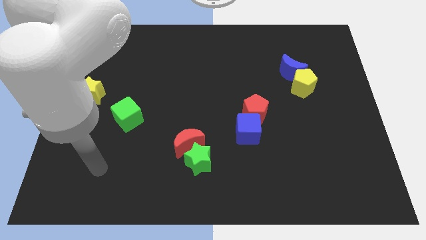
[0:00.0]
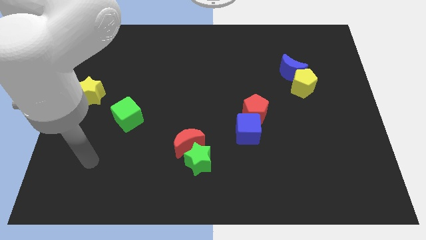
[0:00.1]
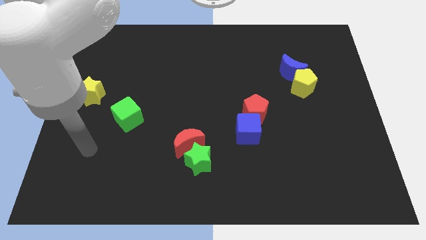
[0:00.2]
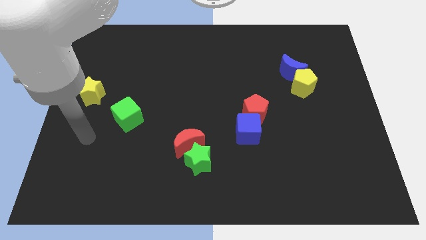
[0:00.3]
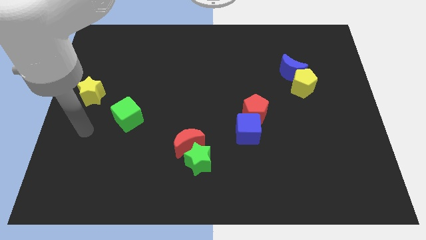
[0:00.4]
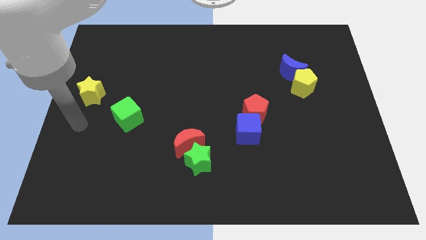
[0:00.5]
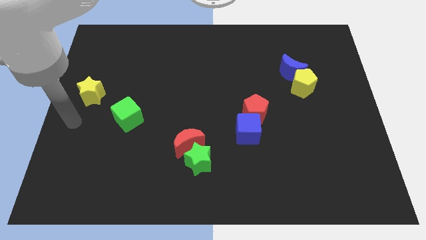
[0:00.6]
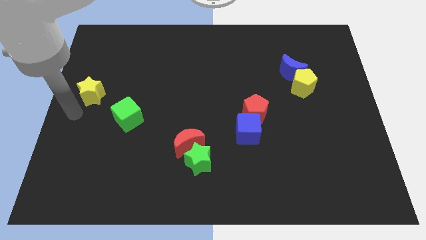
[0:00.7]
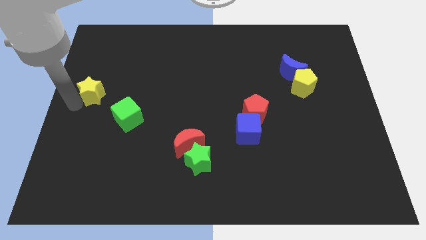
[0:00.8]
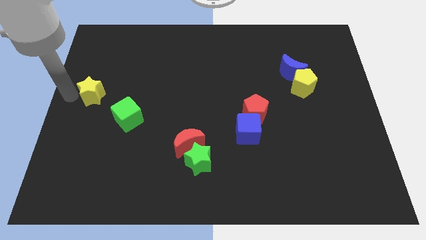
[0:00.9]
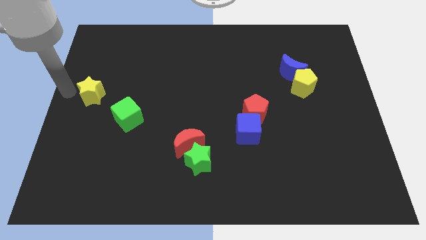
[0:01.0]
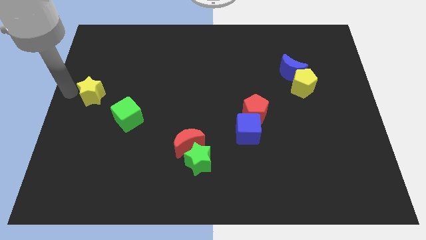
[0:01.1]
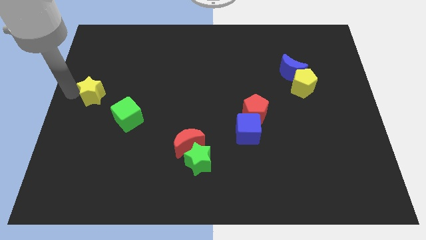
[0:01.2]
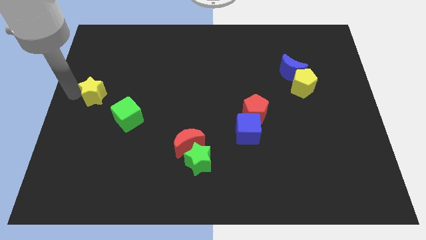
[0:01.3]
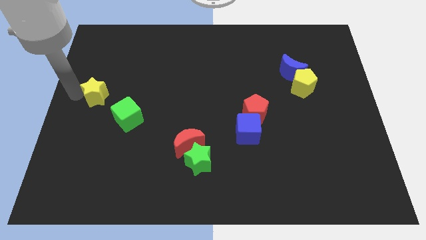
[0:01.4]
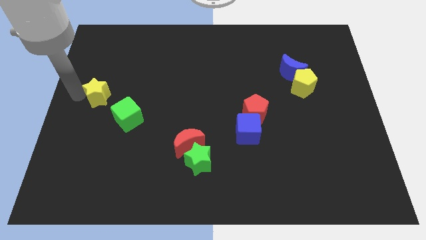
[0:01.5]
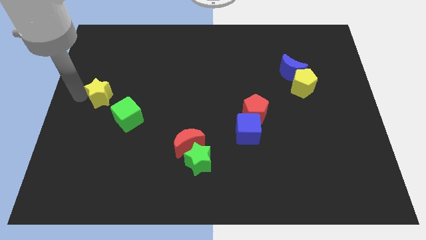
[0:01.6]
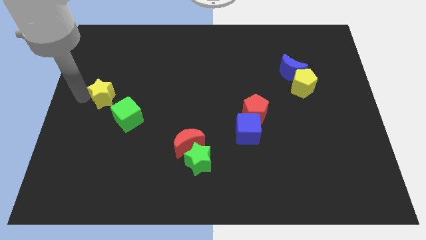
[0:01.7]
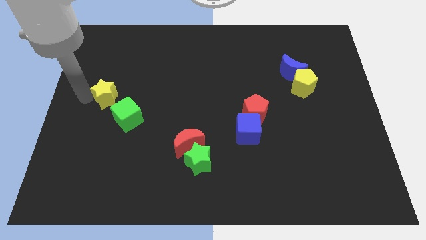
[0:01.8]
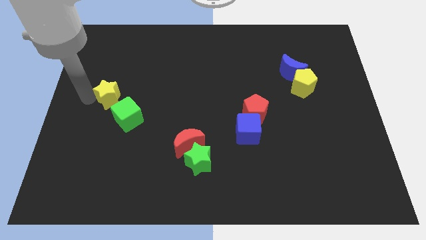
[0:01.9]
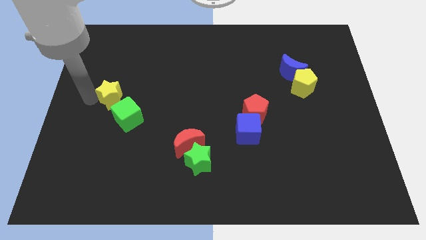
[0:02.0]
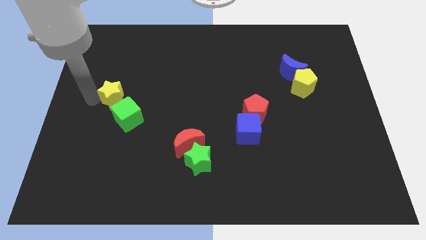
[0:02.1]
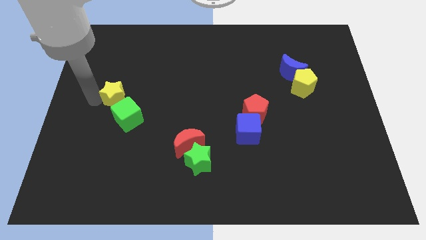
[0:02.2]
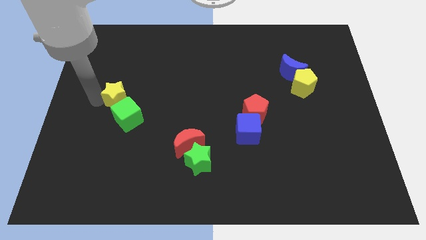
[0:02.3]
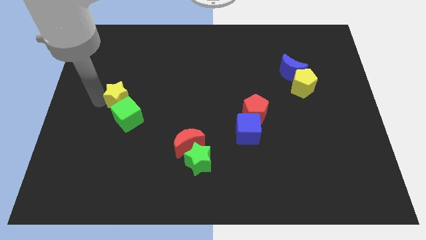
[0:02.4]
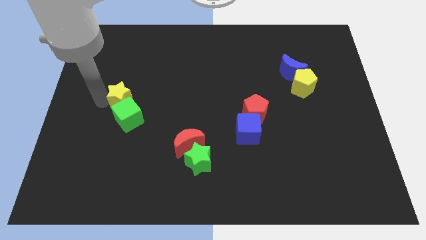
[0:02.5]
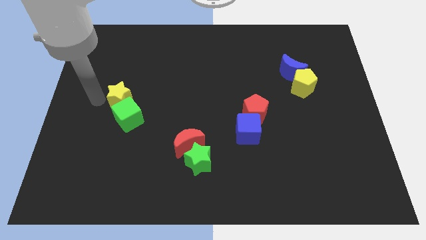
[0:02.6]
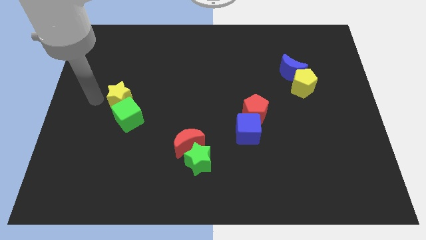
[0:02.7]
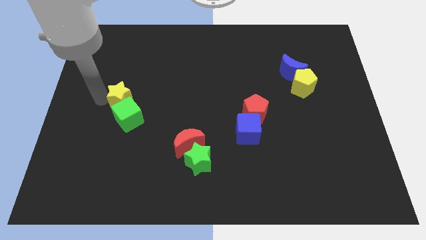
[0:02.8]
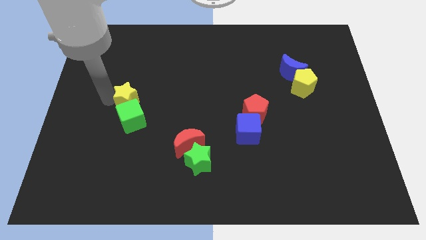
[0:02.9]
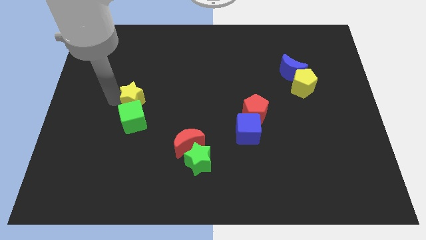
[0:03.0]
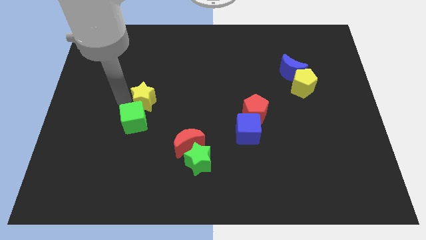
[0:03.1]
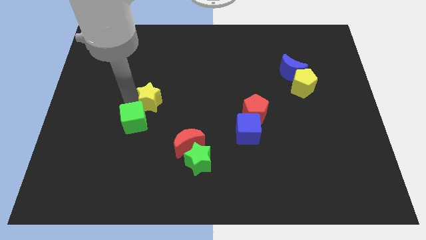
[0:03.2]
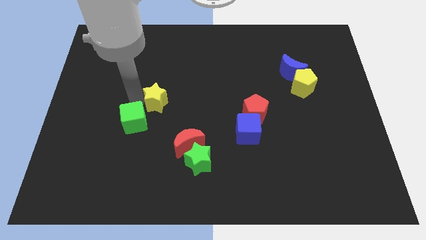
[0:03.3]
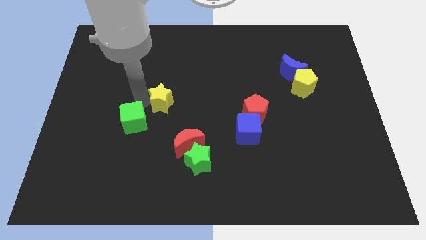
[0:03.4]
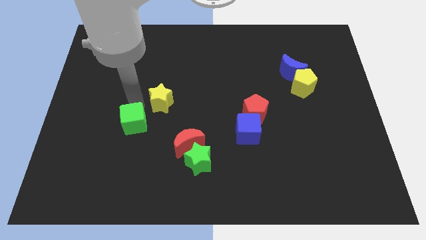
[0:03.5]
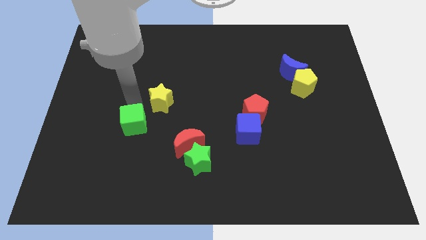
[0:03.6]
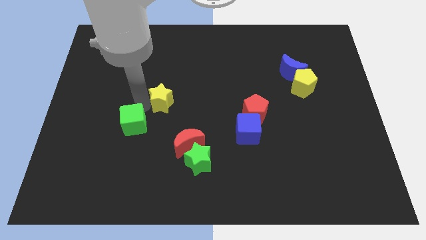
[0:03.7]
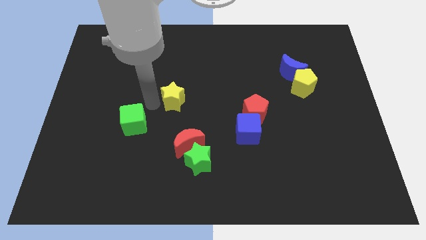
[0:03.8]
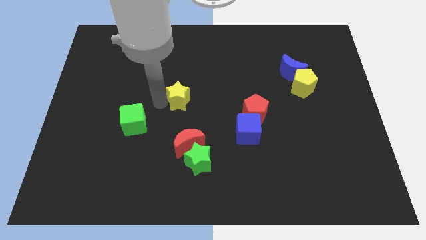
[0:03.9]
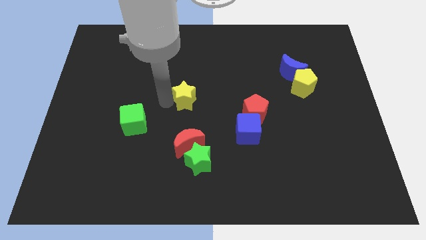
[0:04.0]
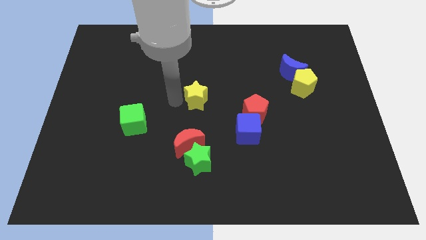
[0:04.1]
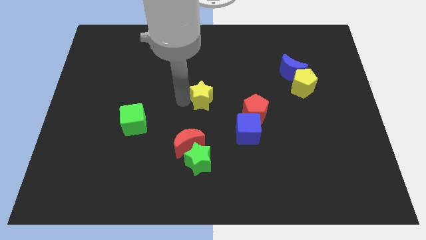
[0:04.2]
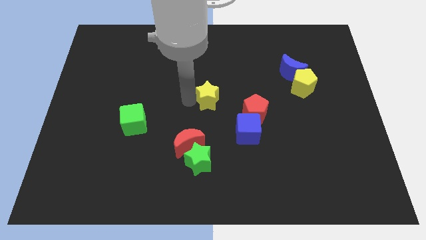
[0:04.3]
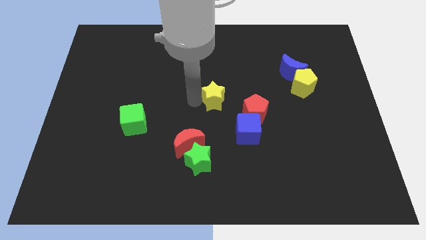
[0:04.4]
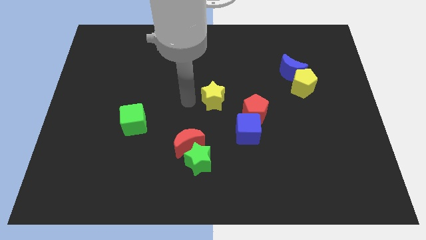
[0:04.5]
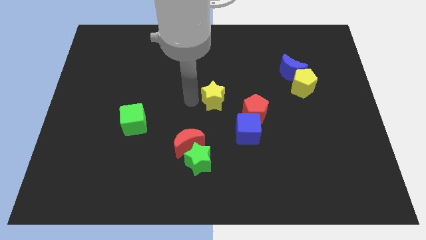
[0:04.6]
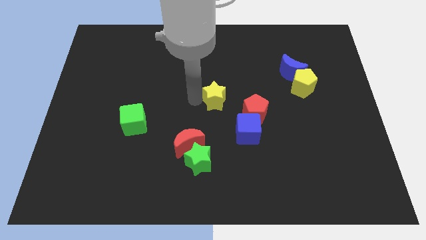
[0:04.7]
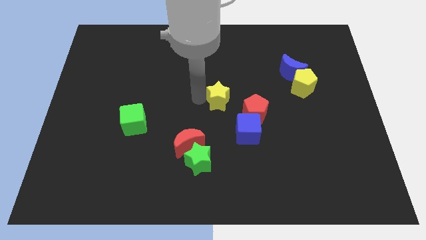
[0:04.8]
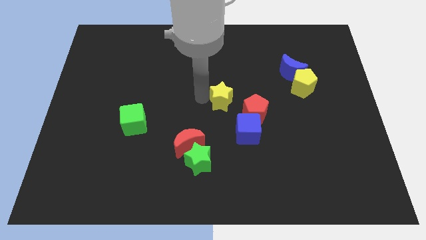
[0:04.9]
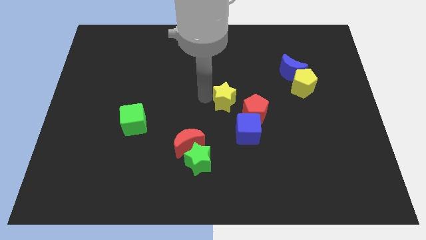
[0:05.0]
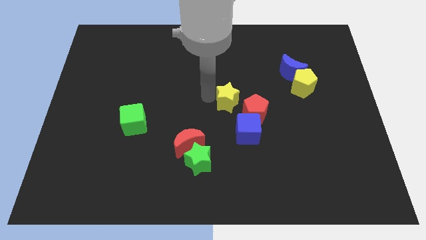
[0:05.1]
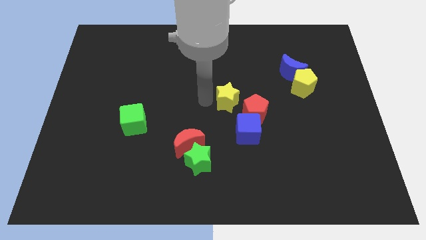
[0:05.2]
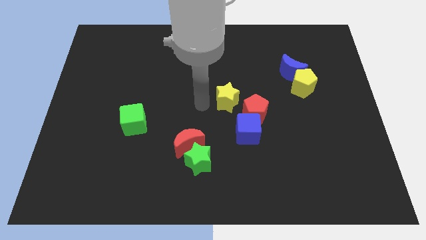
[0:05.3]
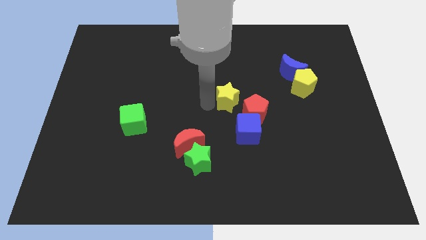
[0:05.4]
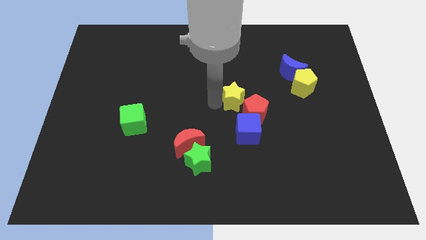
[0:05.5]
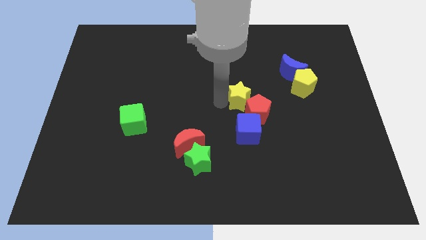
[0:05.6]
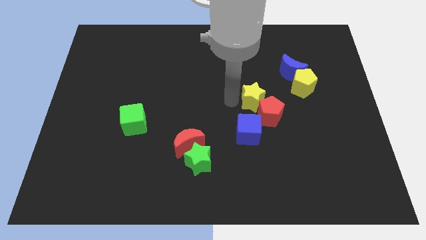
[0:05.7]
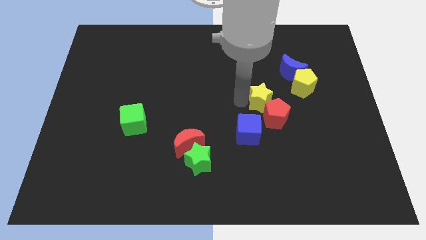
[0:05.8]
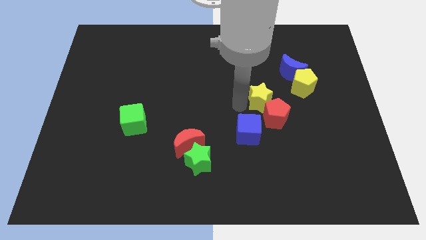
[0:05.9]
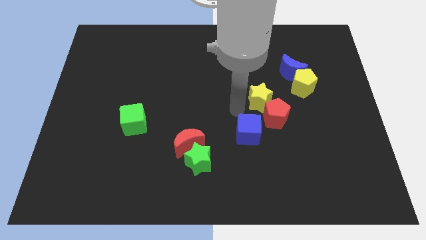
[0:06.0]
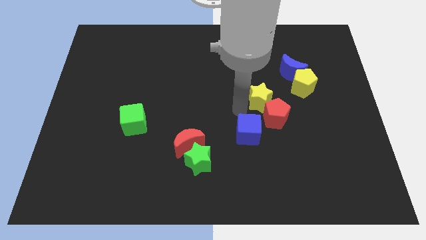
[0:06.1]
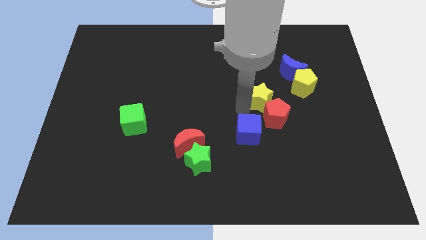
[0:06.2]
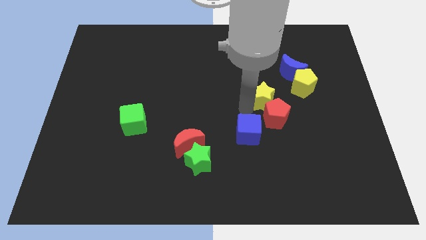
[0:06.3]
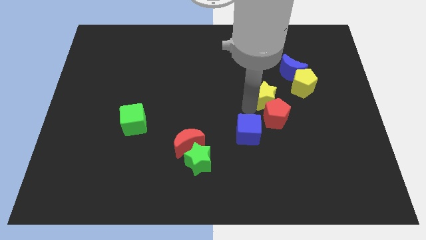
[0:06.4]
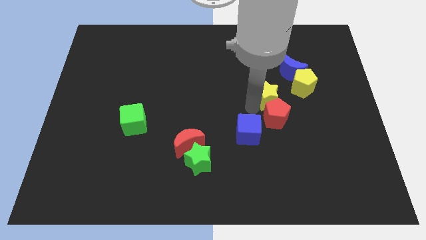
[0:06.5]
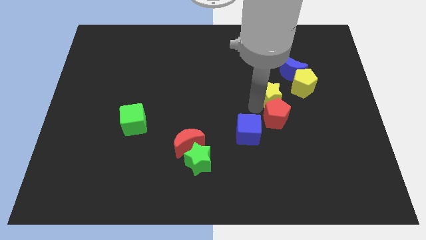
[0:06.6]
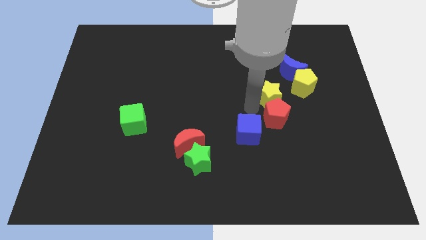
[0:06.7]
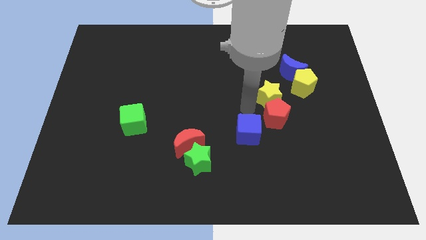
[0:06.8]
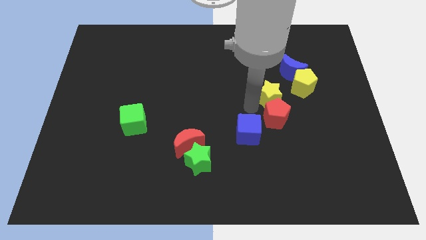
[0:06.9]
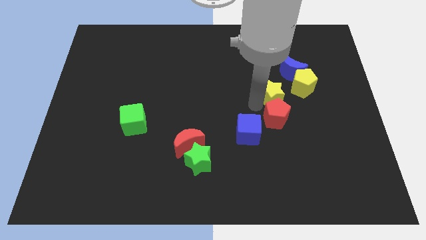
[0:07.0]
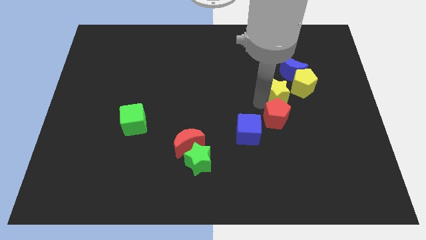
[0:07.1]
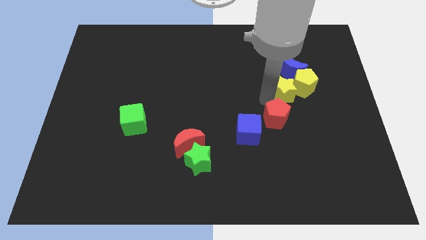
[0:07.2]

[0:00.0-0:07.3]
slide the yellow star next to the yellow pentagon

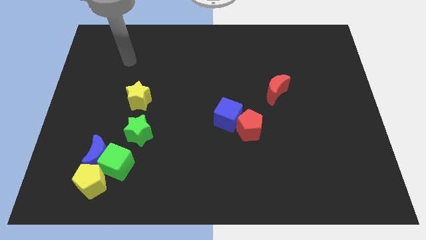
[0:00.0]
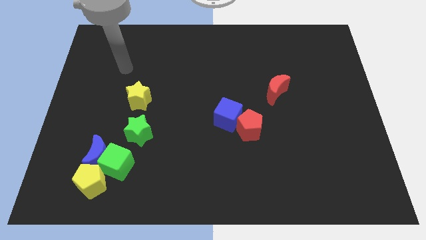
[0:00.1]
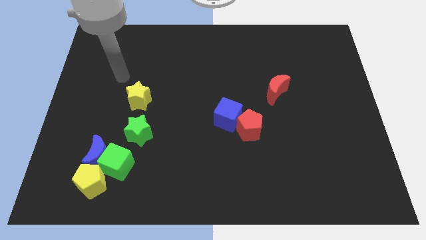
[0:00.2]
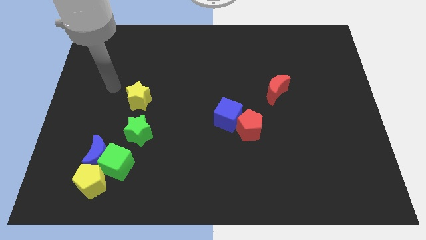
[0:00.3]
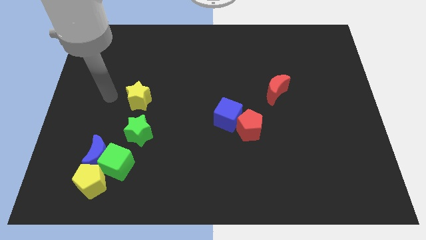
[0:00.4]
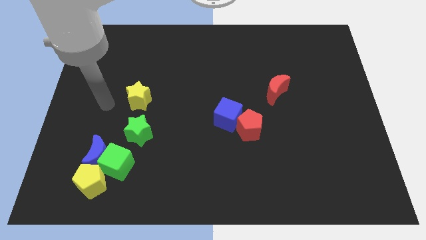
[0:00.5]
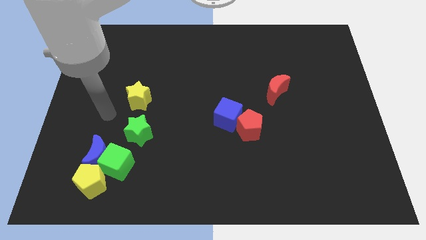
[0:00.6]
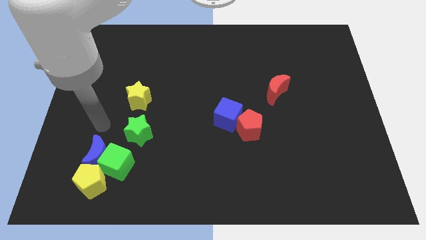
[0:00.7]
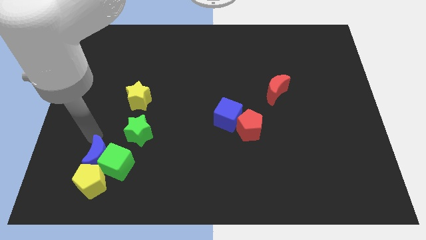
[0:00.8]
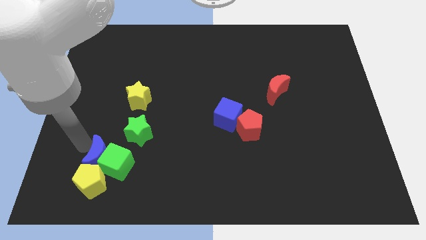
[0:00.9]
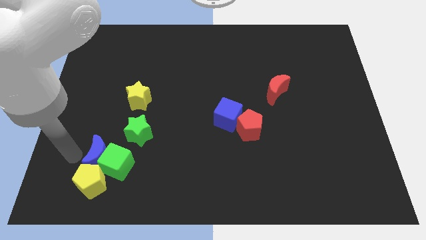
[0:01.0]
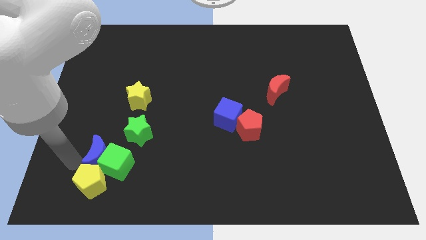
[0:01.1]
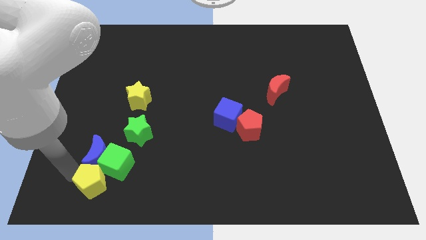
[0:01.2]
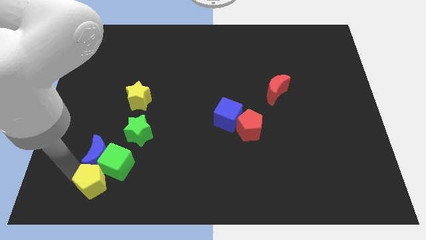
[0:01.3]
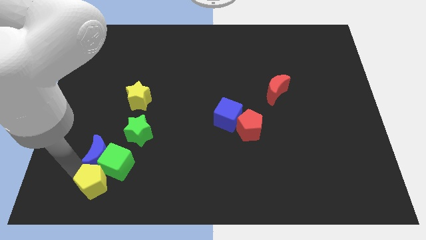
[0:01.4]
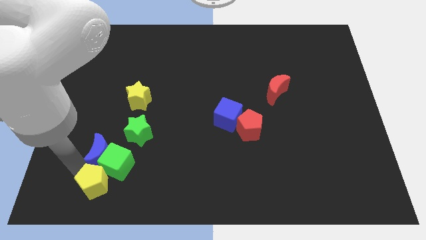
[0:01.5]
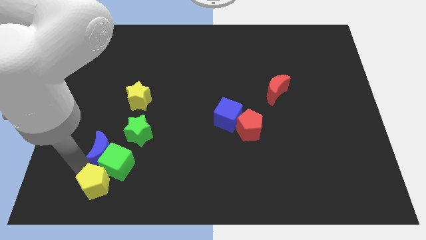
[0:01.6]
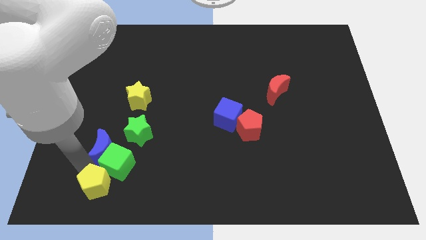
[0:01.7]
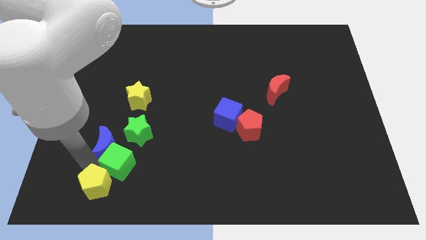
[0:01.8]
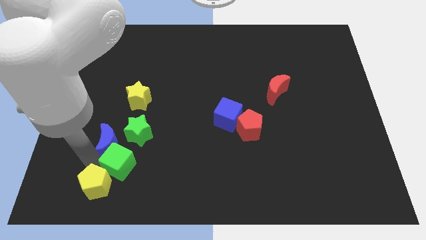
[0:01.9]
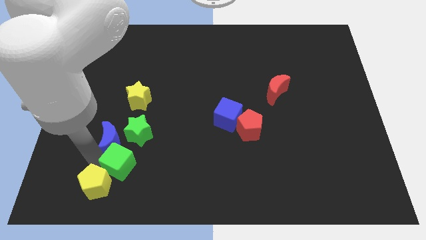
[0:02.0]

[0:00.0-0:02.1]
push the blue moon towards the green star
